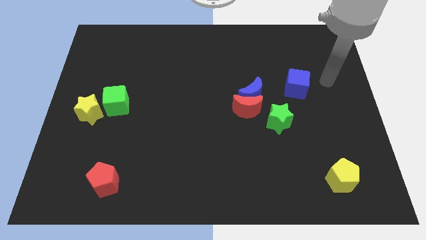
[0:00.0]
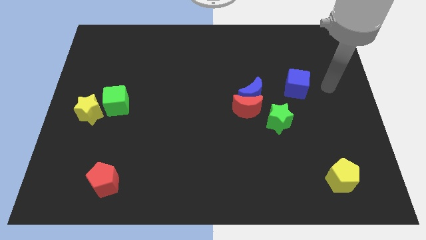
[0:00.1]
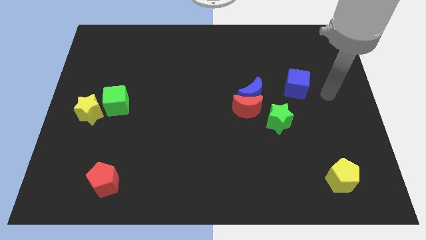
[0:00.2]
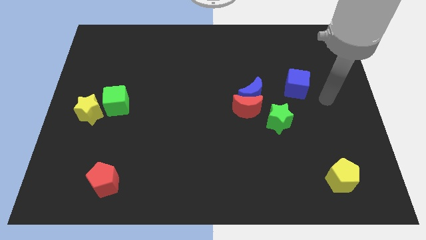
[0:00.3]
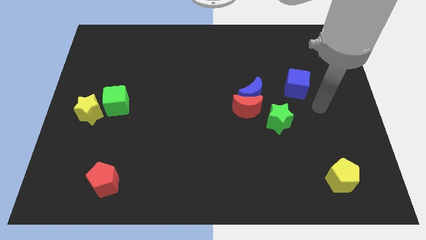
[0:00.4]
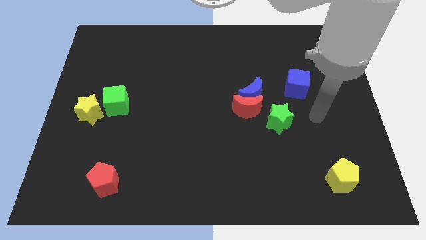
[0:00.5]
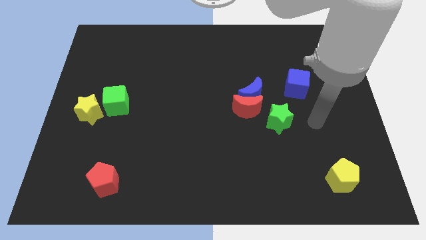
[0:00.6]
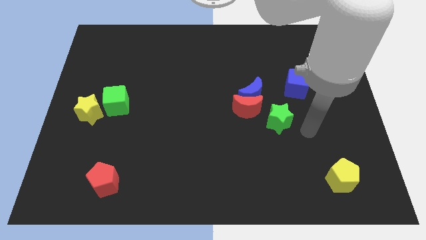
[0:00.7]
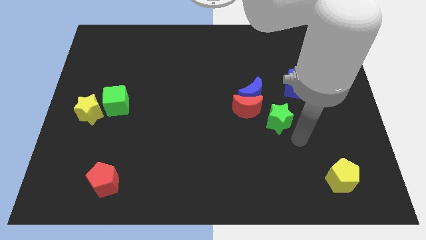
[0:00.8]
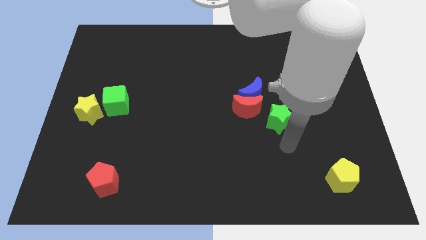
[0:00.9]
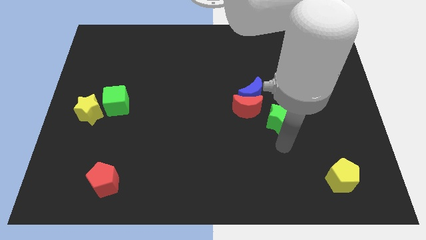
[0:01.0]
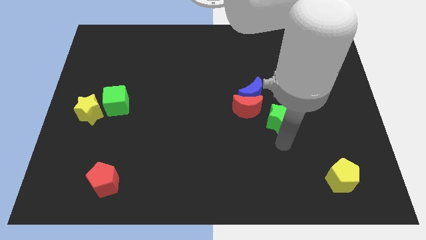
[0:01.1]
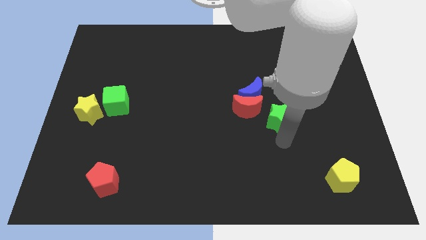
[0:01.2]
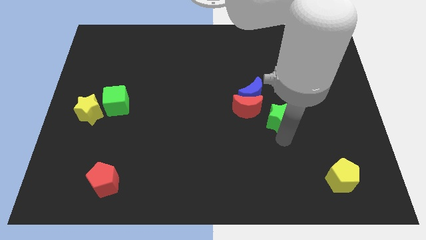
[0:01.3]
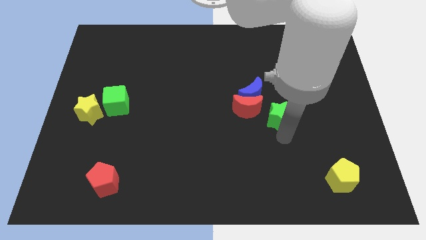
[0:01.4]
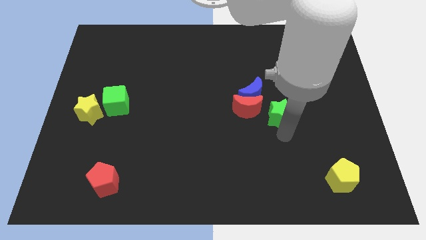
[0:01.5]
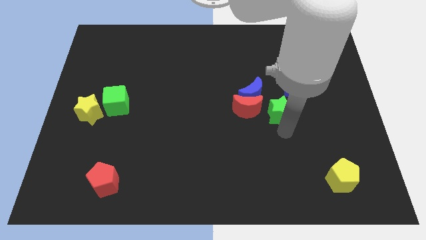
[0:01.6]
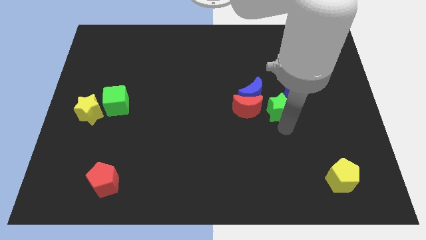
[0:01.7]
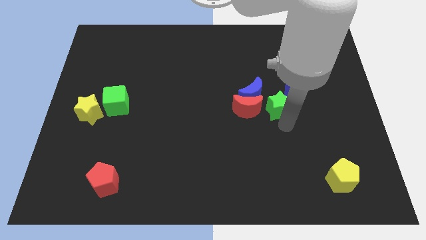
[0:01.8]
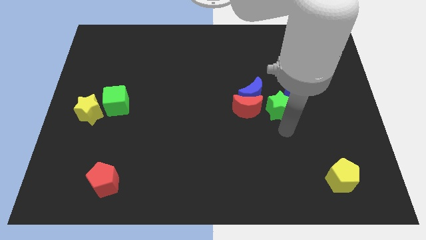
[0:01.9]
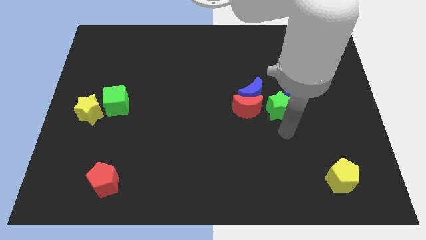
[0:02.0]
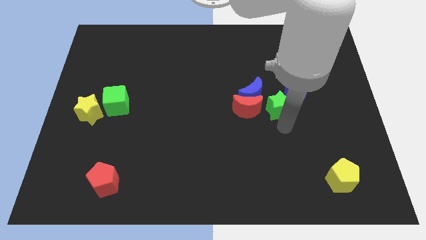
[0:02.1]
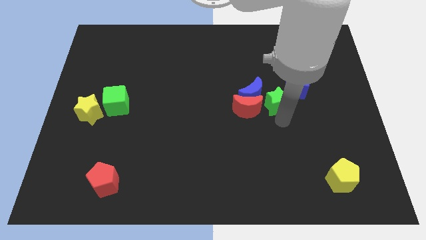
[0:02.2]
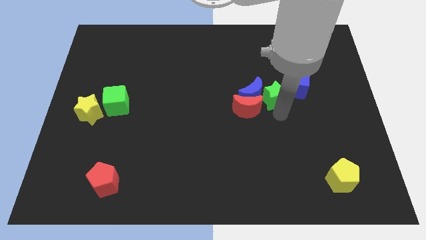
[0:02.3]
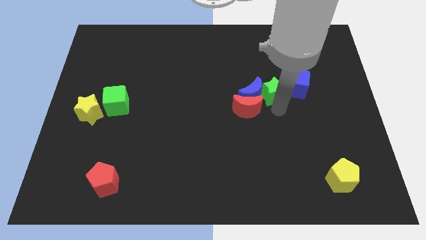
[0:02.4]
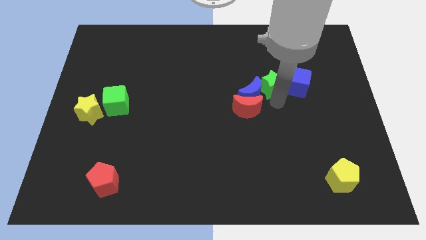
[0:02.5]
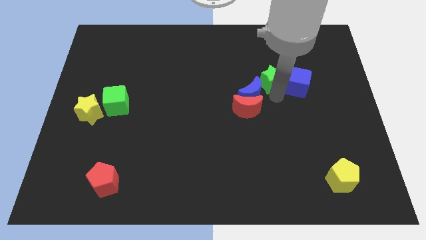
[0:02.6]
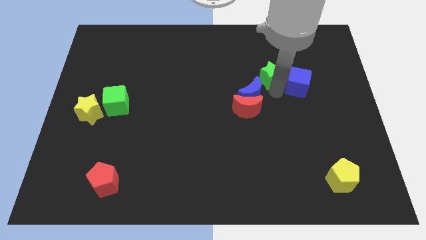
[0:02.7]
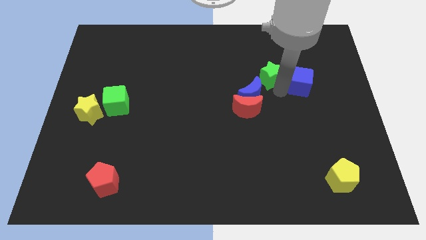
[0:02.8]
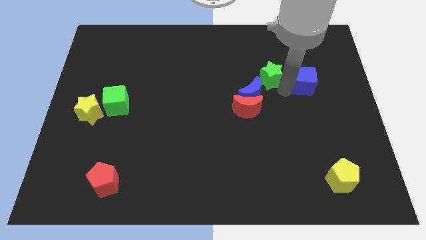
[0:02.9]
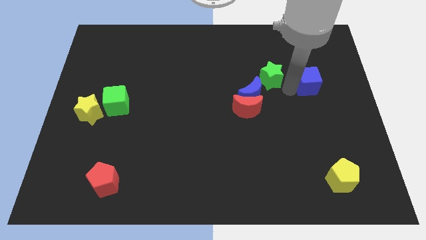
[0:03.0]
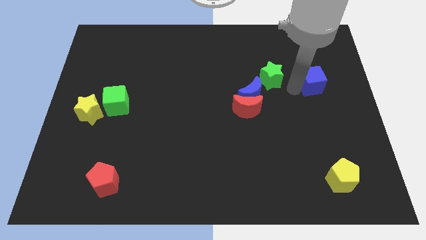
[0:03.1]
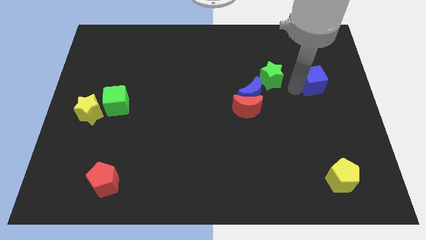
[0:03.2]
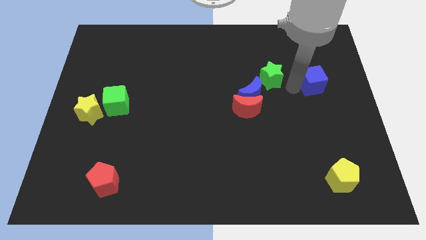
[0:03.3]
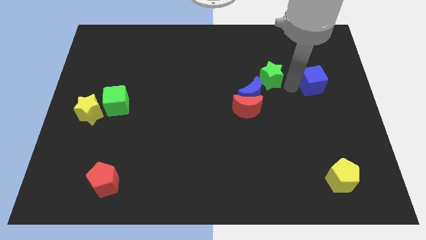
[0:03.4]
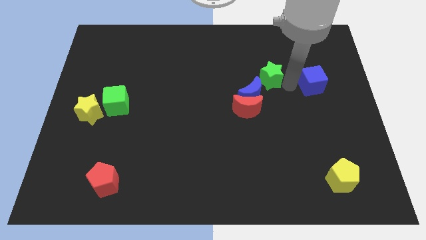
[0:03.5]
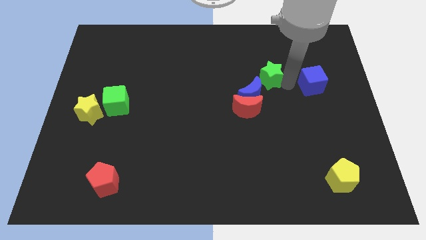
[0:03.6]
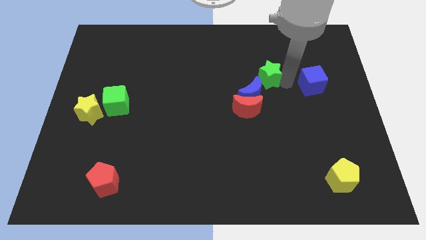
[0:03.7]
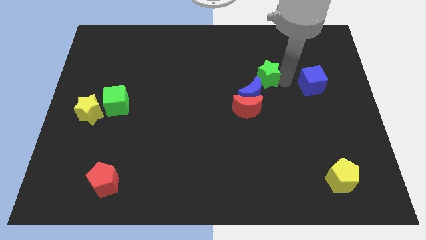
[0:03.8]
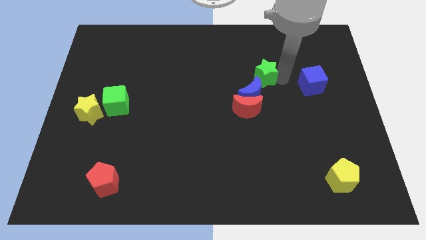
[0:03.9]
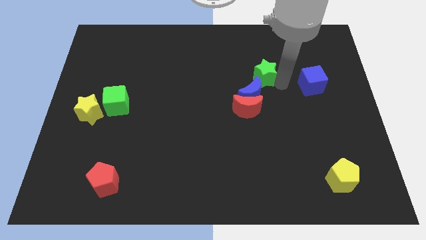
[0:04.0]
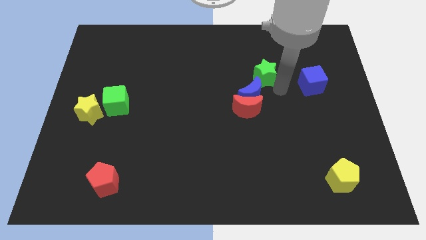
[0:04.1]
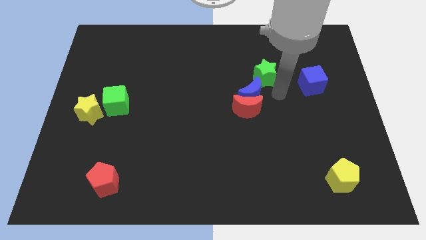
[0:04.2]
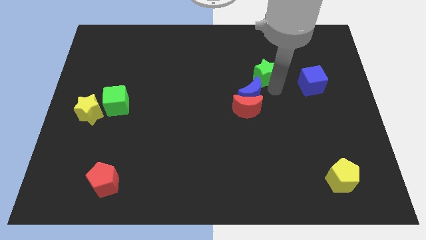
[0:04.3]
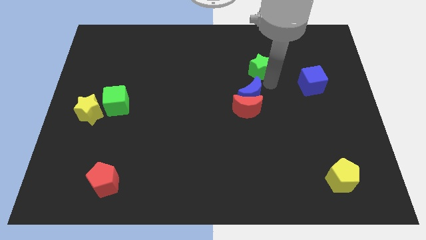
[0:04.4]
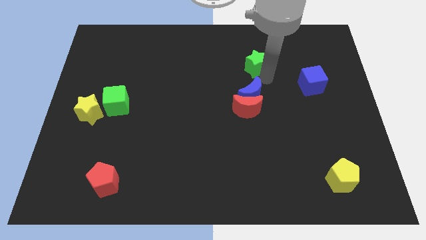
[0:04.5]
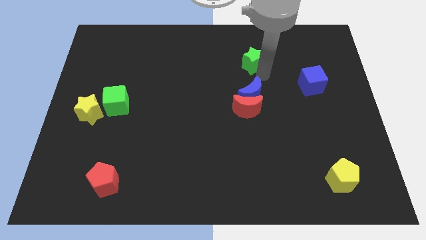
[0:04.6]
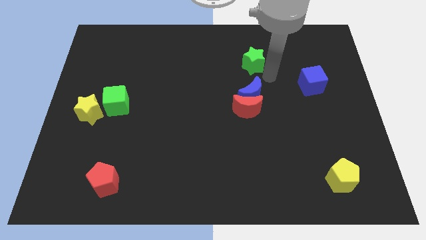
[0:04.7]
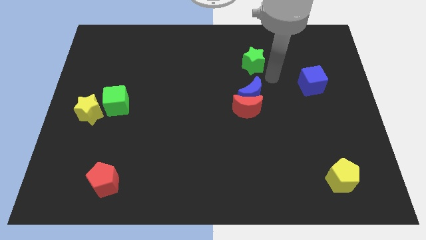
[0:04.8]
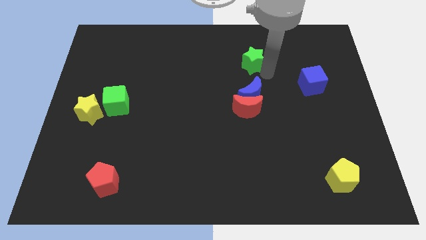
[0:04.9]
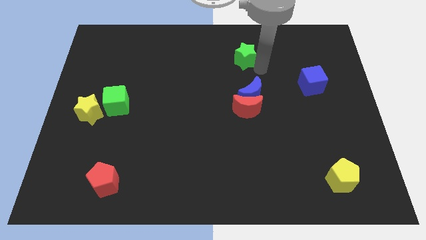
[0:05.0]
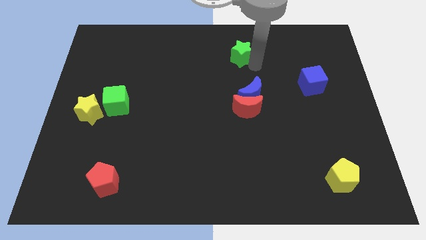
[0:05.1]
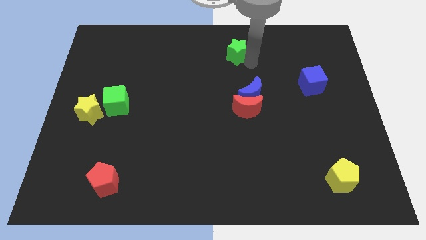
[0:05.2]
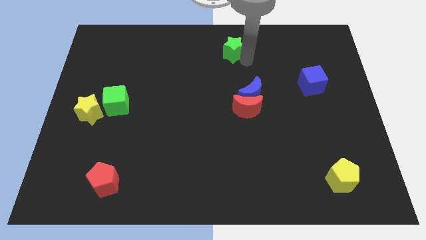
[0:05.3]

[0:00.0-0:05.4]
push the green star to the towards your base

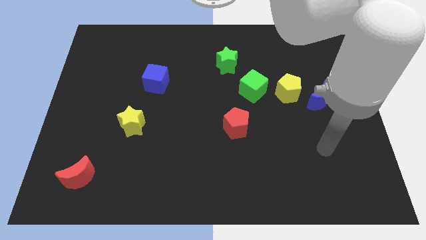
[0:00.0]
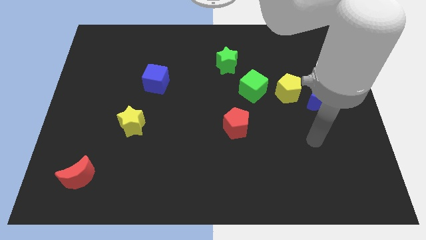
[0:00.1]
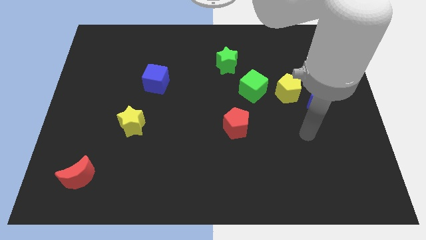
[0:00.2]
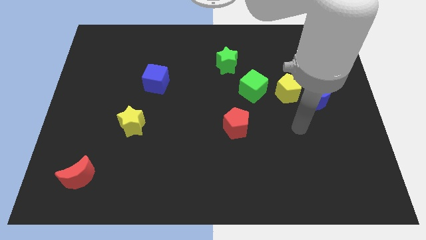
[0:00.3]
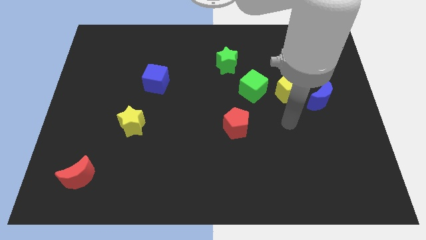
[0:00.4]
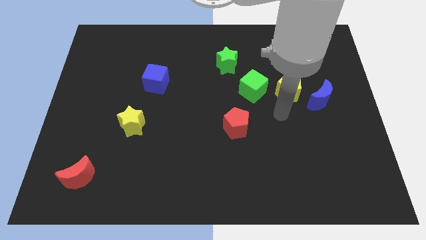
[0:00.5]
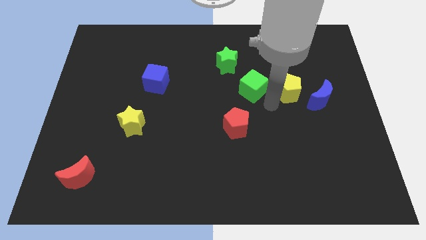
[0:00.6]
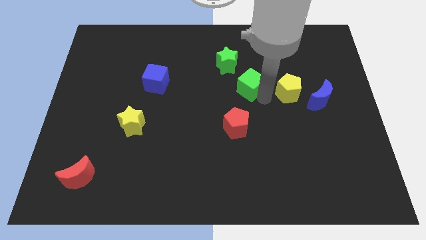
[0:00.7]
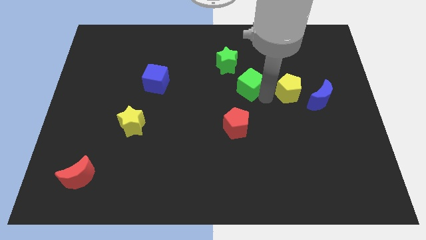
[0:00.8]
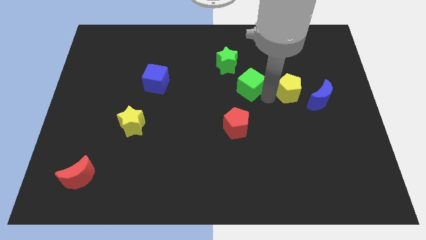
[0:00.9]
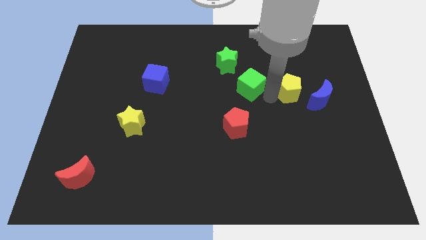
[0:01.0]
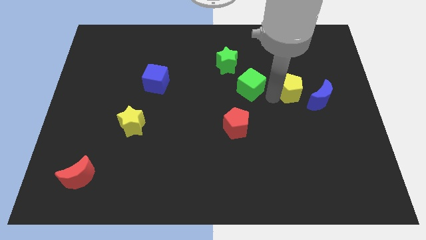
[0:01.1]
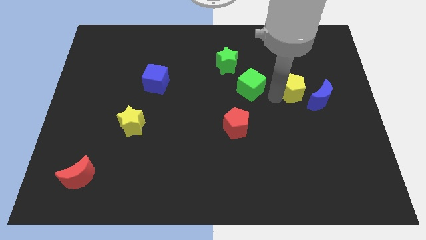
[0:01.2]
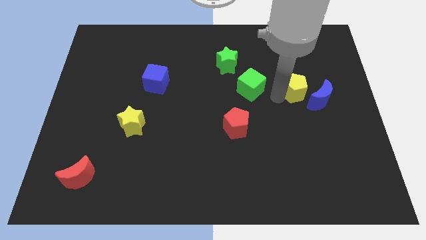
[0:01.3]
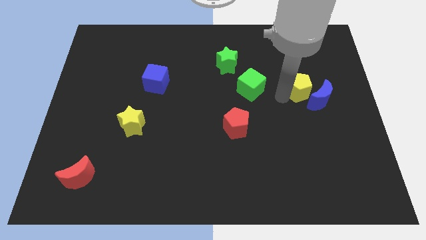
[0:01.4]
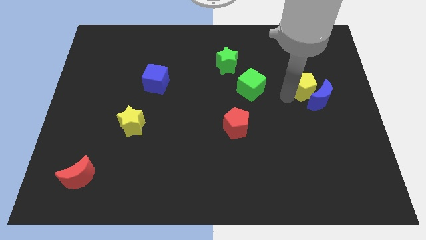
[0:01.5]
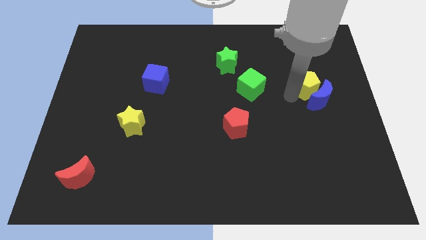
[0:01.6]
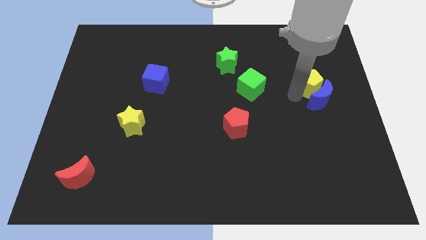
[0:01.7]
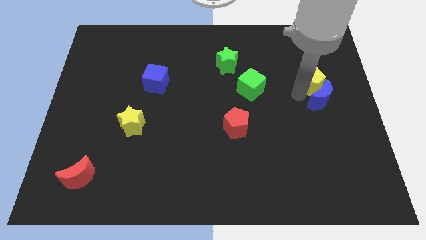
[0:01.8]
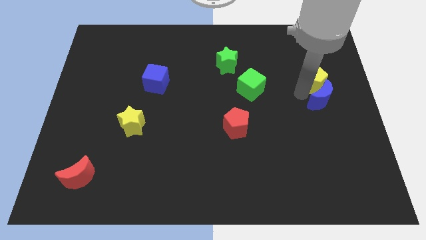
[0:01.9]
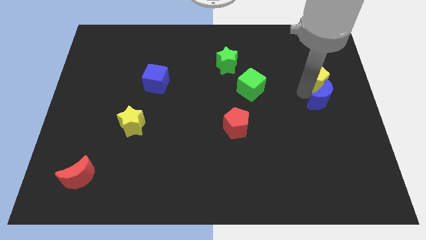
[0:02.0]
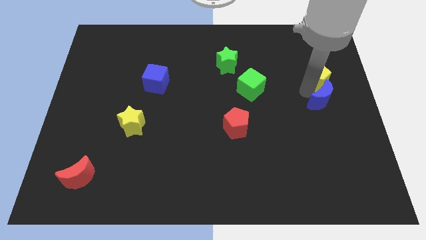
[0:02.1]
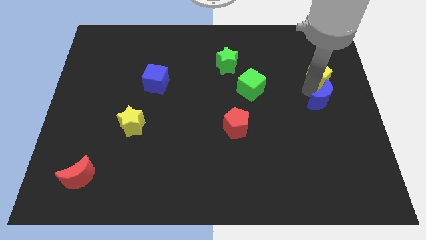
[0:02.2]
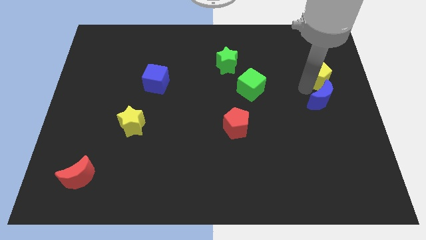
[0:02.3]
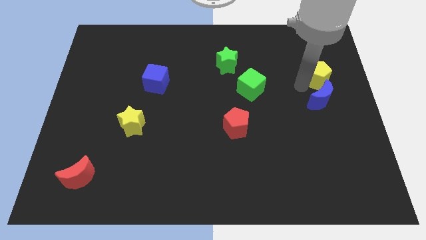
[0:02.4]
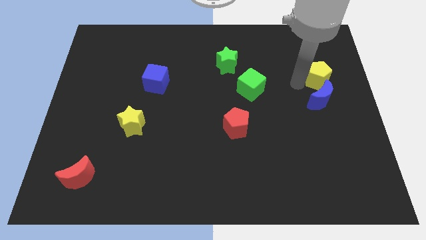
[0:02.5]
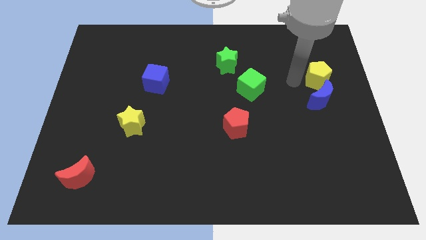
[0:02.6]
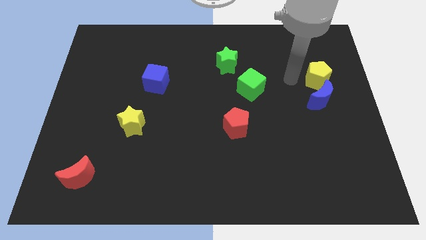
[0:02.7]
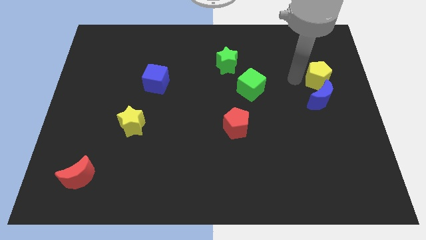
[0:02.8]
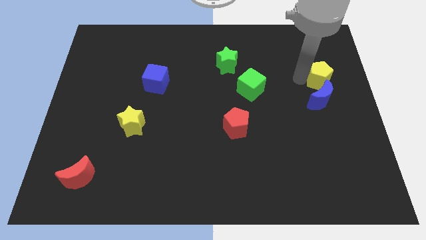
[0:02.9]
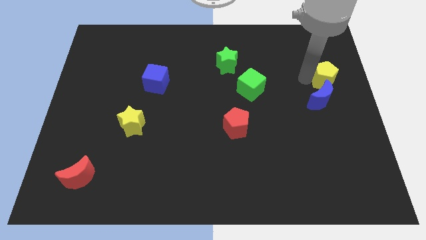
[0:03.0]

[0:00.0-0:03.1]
push the yellow pentagon to the right side
